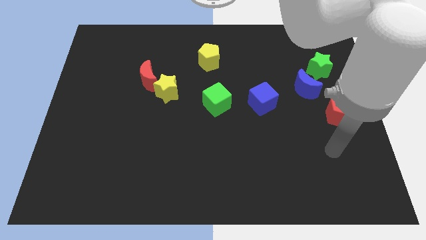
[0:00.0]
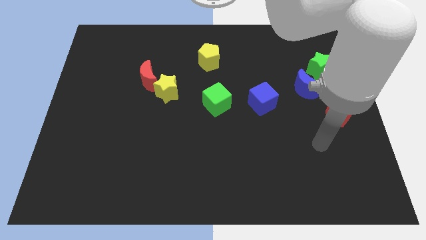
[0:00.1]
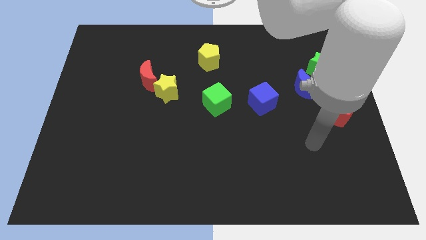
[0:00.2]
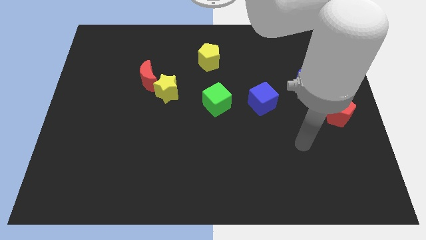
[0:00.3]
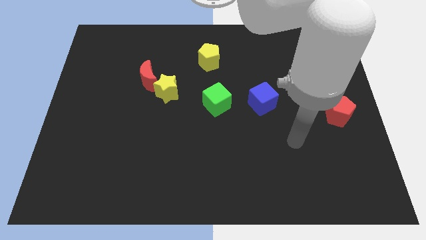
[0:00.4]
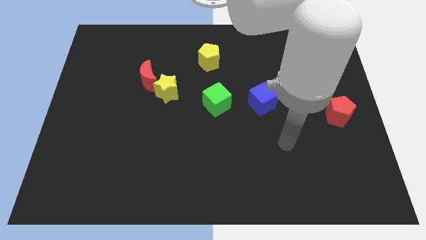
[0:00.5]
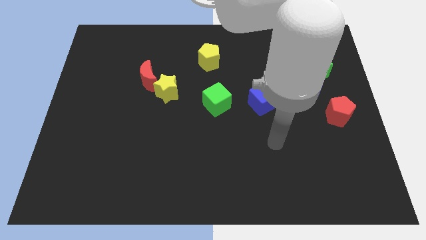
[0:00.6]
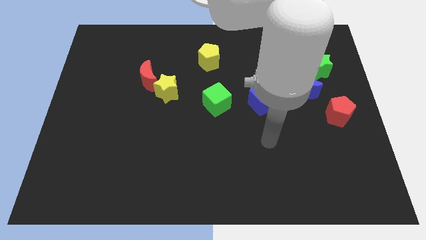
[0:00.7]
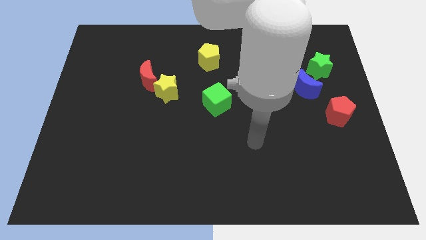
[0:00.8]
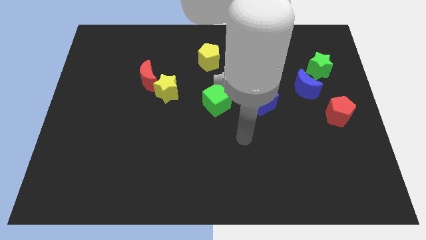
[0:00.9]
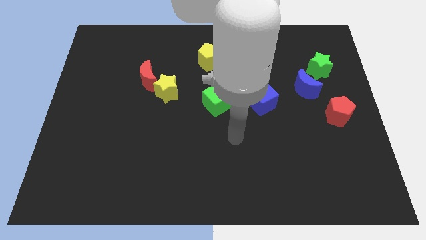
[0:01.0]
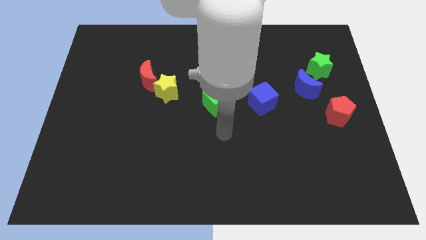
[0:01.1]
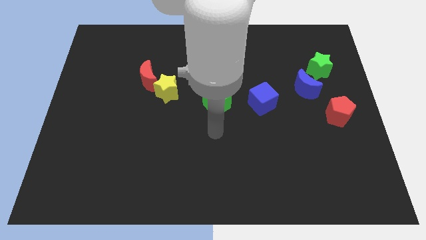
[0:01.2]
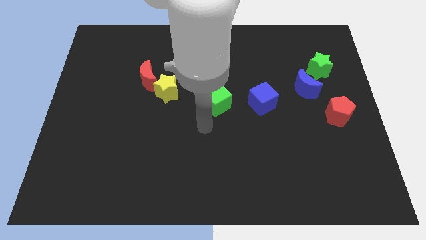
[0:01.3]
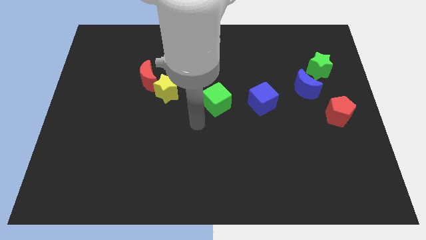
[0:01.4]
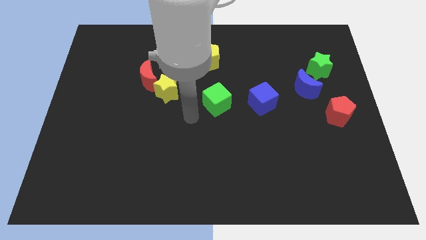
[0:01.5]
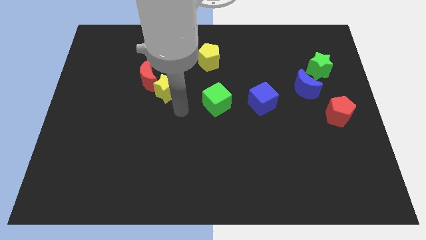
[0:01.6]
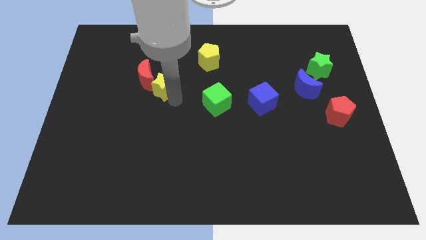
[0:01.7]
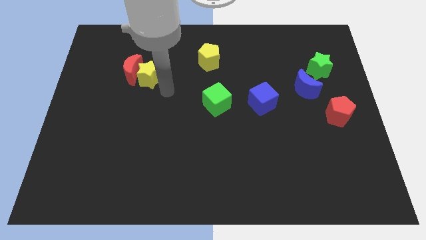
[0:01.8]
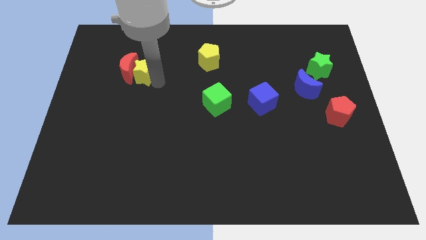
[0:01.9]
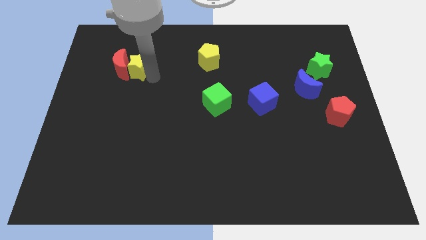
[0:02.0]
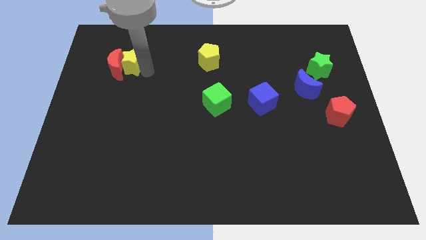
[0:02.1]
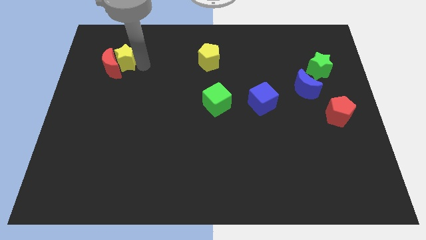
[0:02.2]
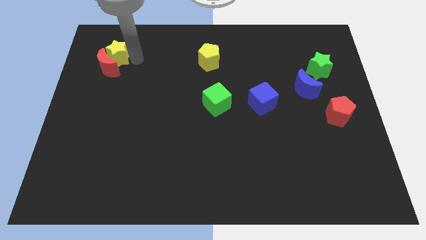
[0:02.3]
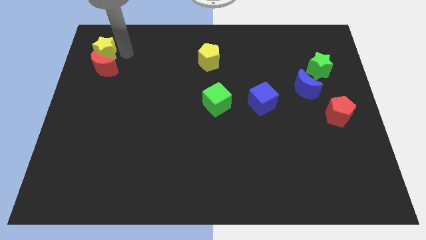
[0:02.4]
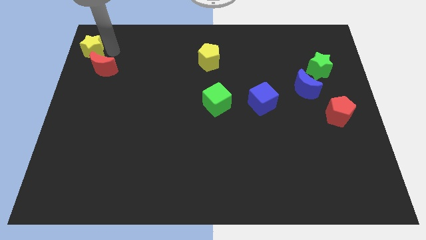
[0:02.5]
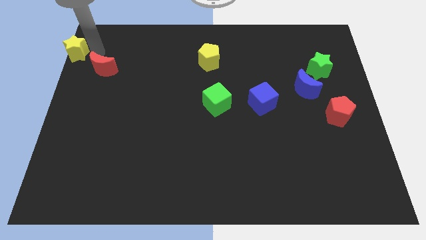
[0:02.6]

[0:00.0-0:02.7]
separate the red moon from the yellow star

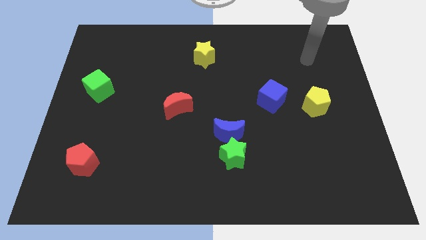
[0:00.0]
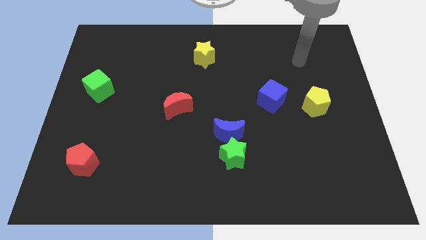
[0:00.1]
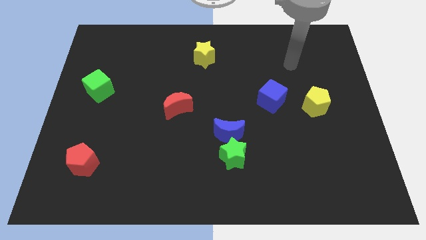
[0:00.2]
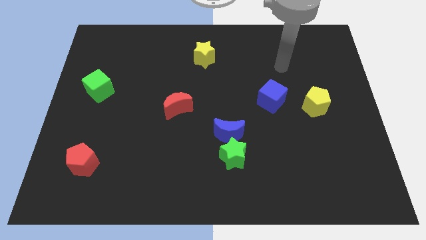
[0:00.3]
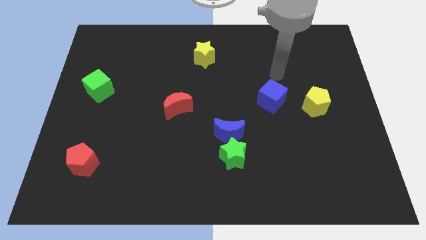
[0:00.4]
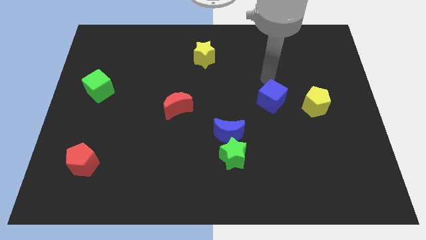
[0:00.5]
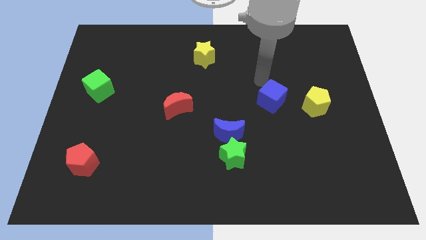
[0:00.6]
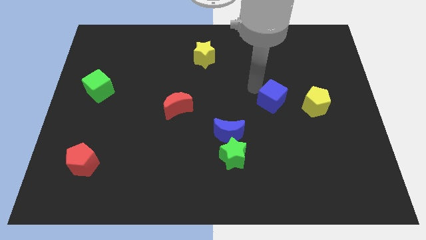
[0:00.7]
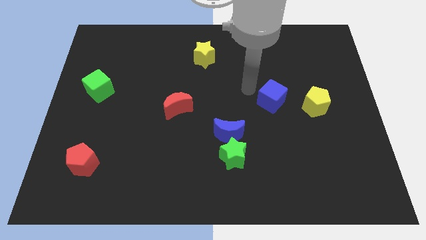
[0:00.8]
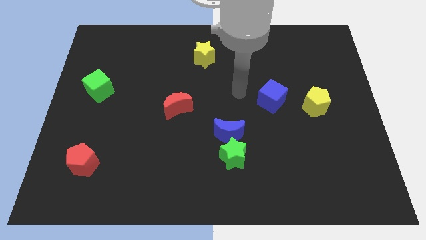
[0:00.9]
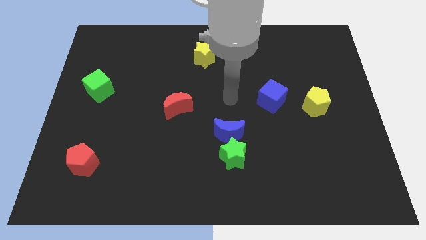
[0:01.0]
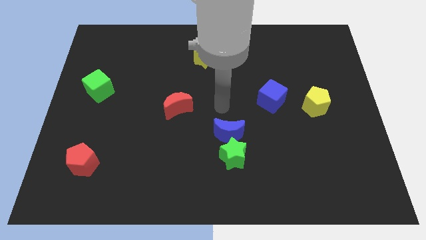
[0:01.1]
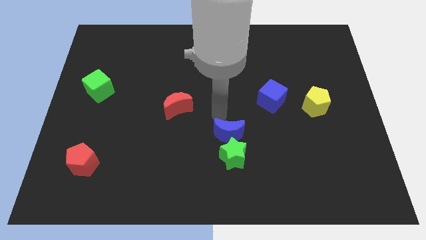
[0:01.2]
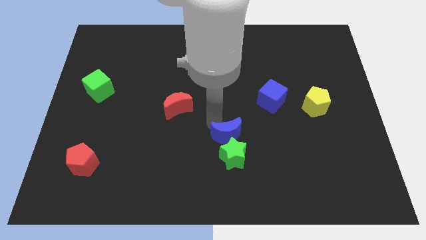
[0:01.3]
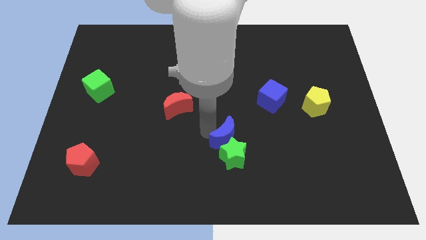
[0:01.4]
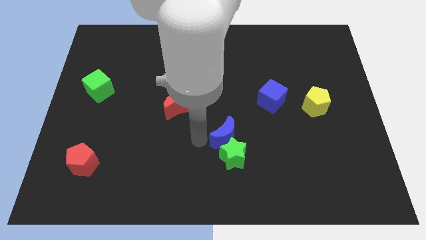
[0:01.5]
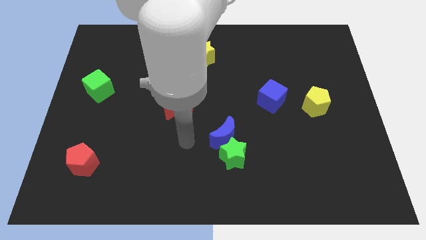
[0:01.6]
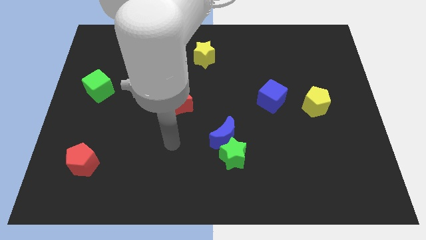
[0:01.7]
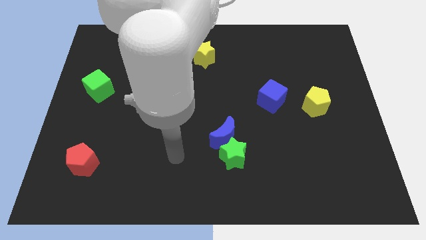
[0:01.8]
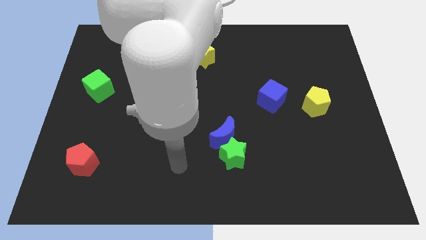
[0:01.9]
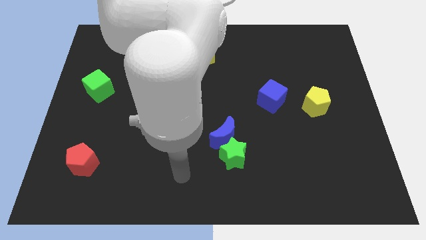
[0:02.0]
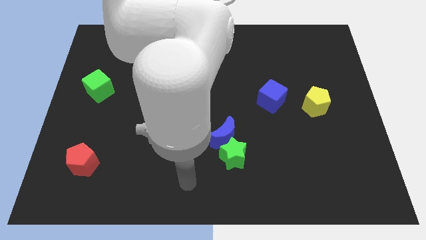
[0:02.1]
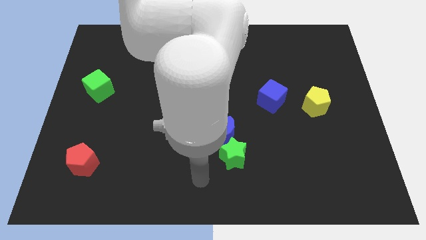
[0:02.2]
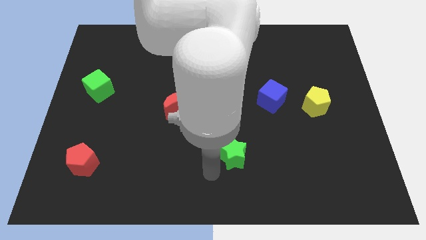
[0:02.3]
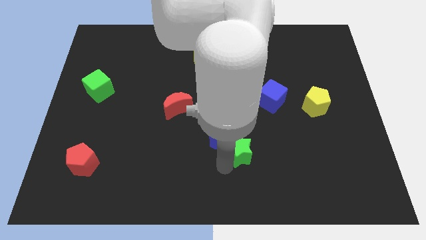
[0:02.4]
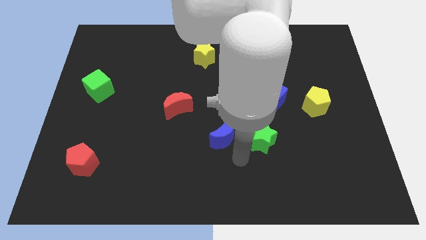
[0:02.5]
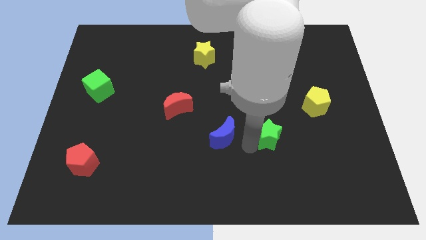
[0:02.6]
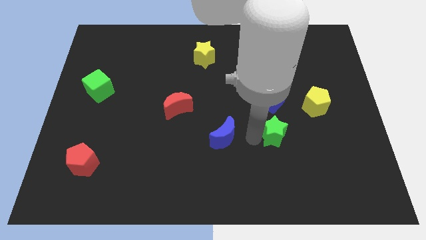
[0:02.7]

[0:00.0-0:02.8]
separate the blue moon from the green star

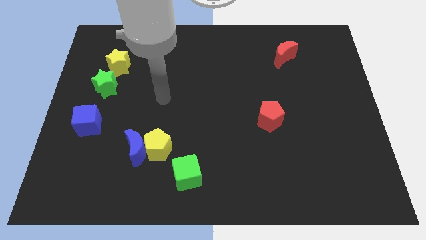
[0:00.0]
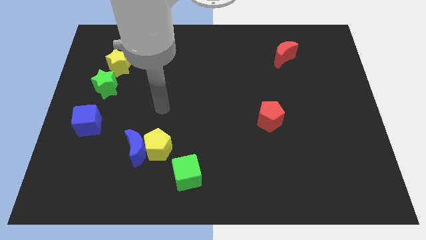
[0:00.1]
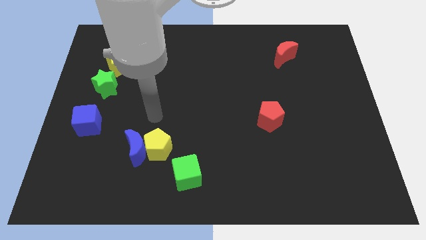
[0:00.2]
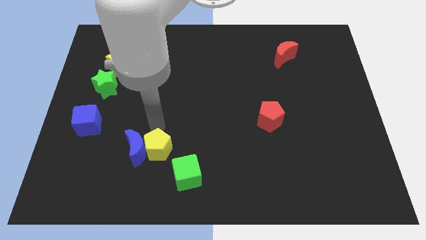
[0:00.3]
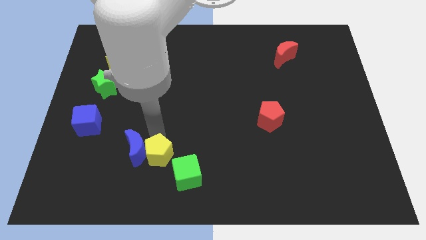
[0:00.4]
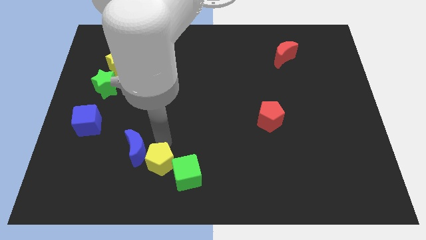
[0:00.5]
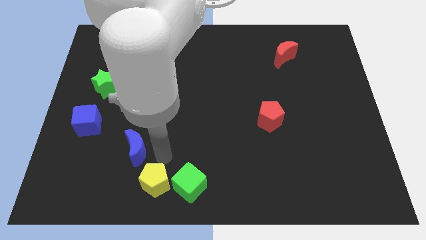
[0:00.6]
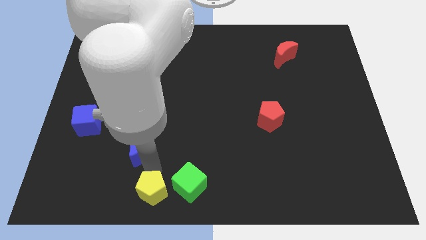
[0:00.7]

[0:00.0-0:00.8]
move the blue moon away from the yellow pentagon

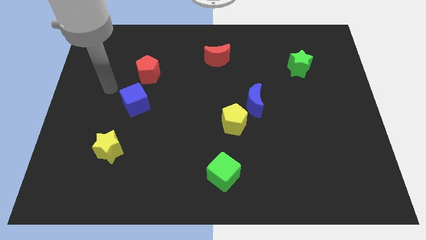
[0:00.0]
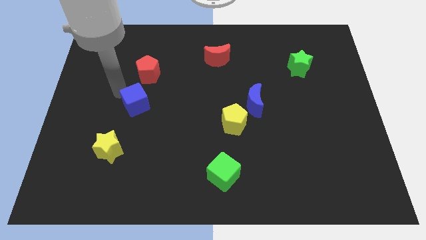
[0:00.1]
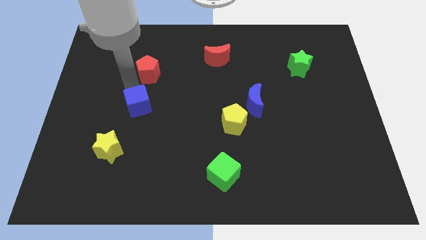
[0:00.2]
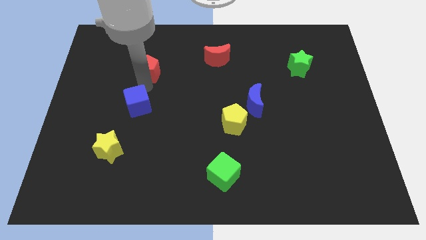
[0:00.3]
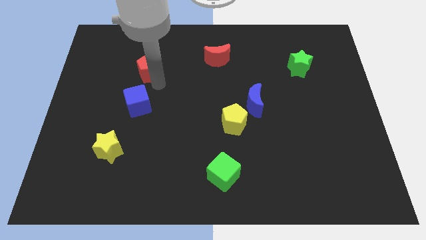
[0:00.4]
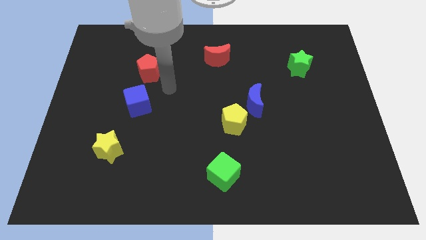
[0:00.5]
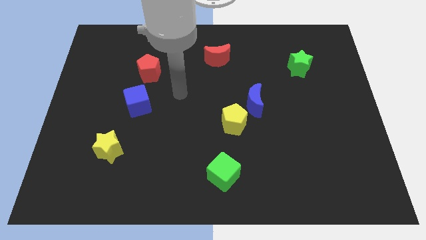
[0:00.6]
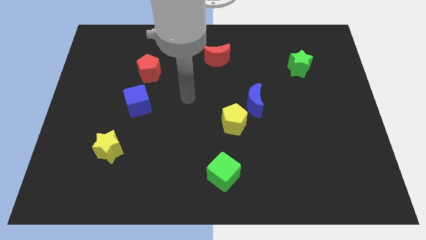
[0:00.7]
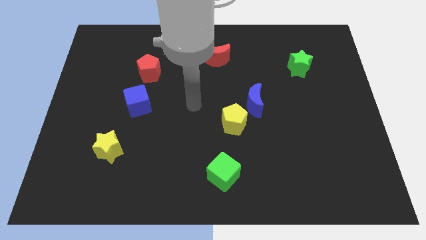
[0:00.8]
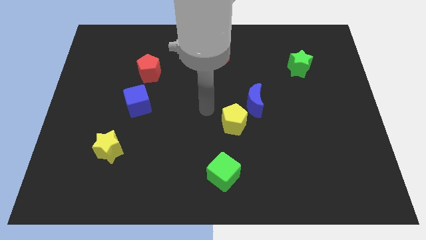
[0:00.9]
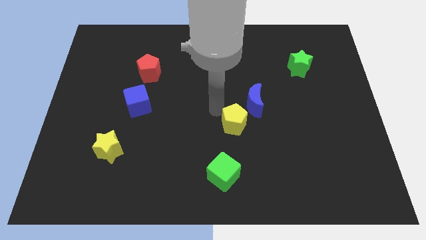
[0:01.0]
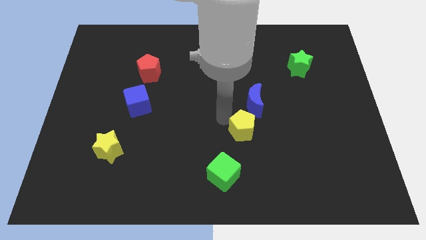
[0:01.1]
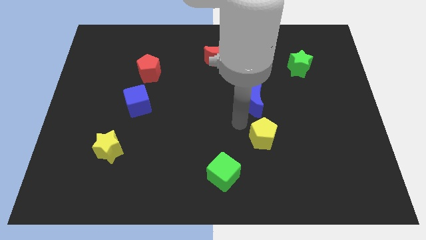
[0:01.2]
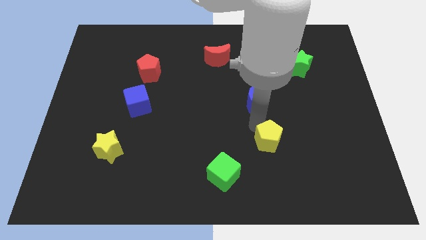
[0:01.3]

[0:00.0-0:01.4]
separate the blue moon from the yellow pentagon

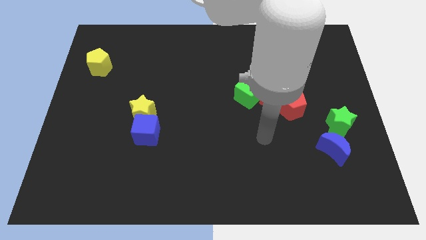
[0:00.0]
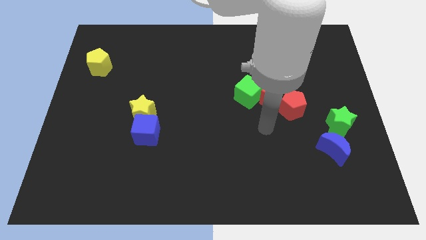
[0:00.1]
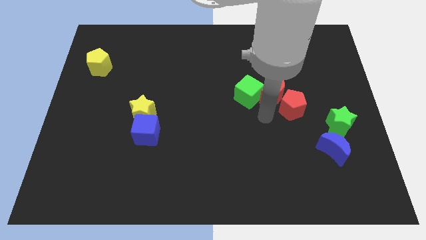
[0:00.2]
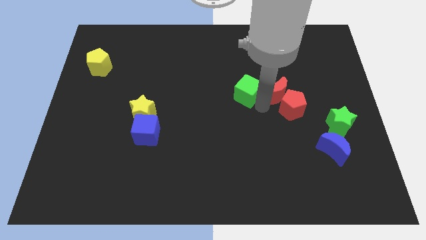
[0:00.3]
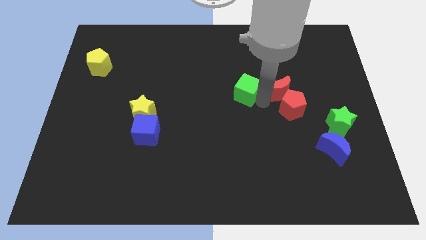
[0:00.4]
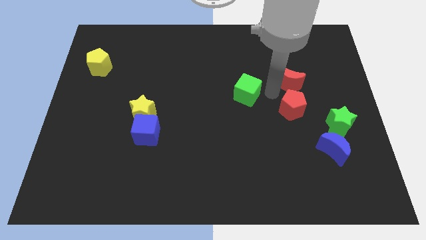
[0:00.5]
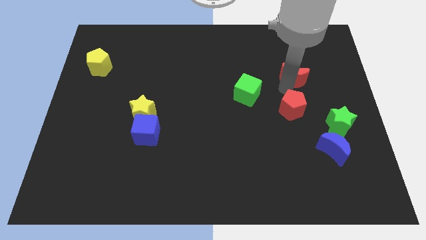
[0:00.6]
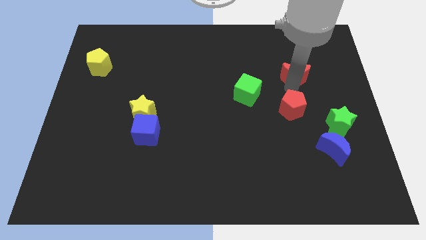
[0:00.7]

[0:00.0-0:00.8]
pull the red pentagon apart from the red moon

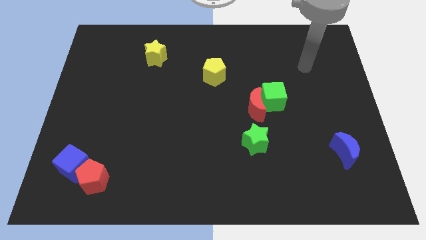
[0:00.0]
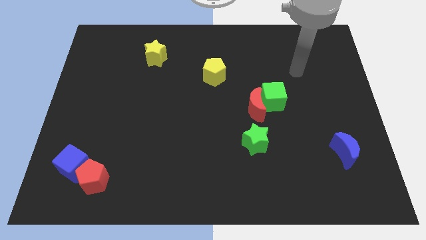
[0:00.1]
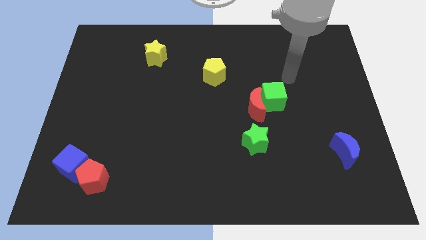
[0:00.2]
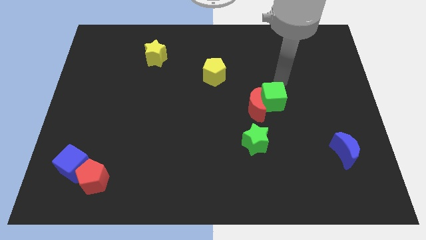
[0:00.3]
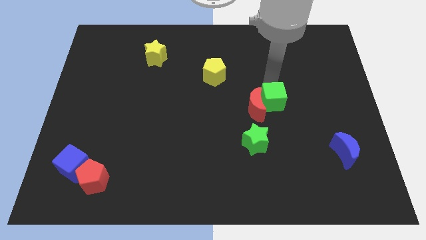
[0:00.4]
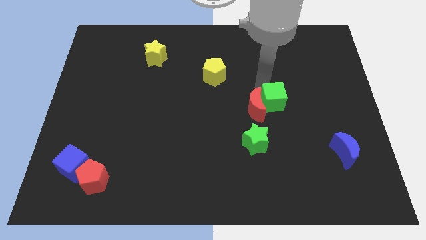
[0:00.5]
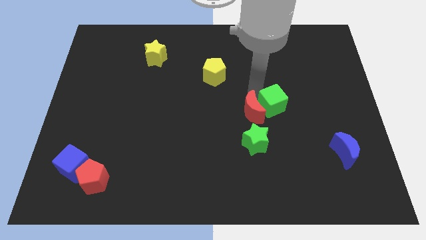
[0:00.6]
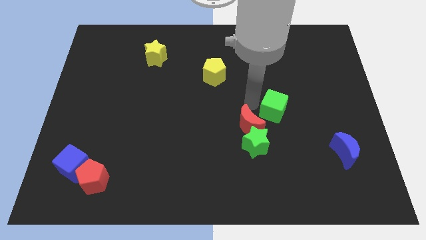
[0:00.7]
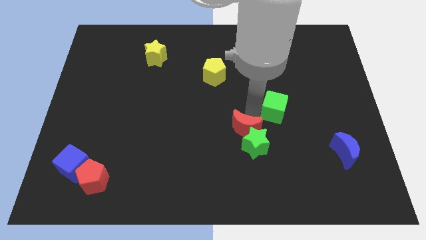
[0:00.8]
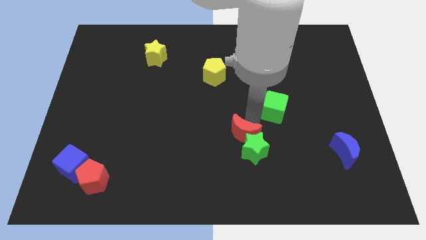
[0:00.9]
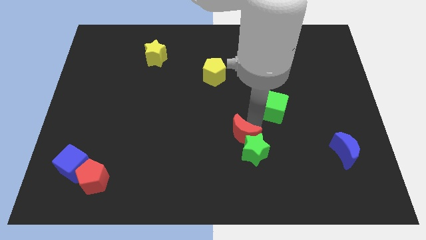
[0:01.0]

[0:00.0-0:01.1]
separate the green cube from the red moon
